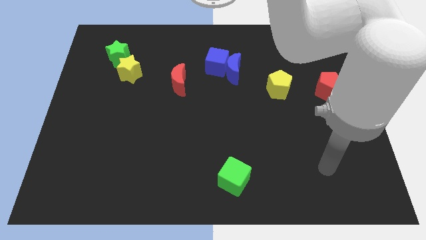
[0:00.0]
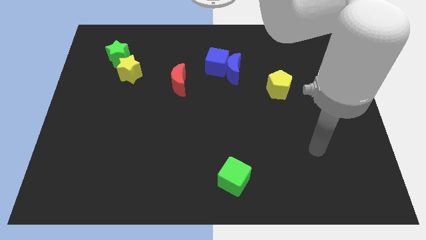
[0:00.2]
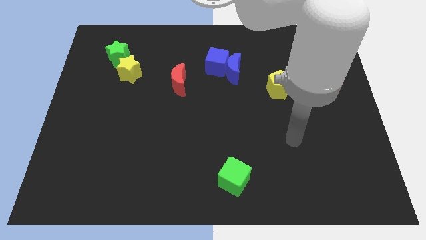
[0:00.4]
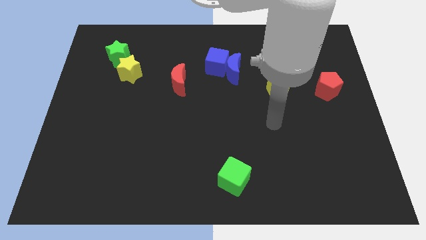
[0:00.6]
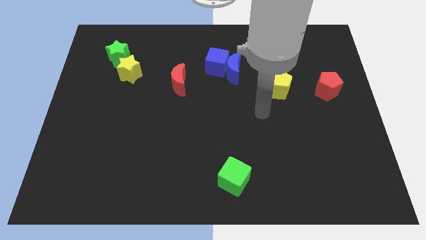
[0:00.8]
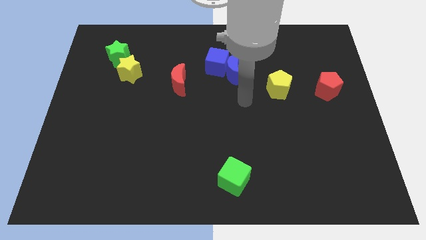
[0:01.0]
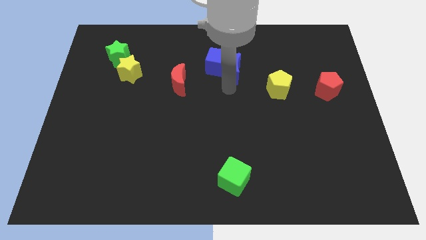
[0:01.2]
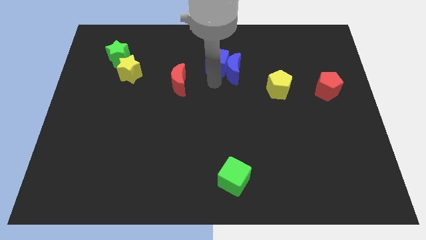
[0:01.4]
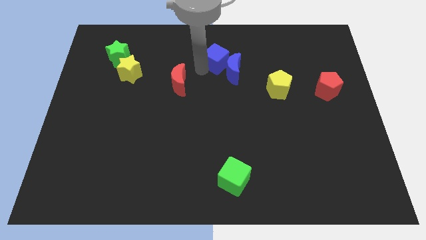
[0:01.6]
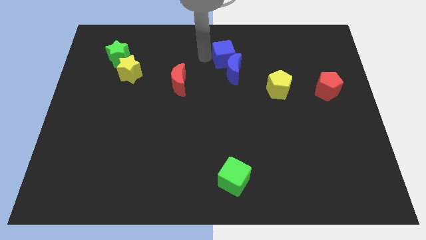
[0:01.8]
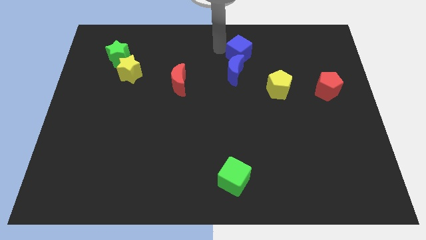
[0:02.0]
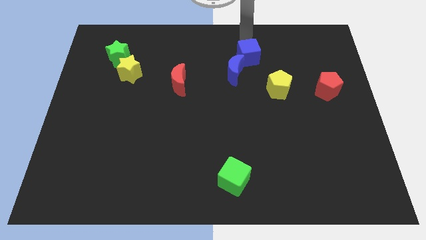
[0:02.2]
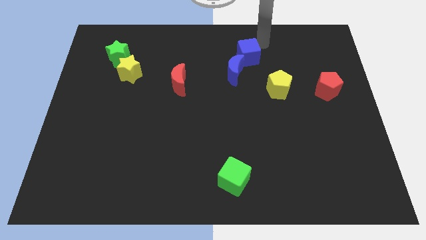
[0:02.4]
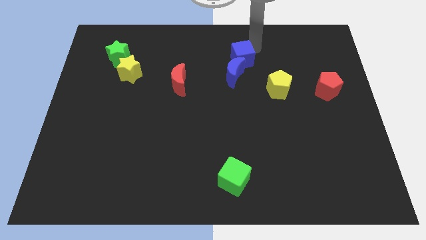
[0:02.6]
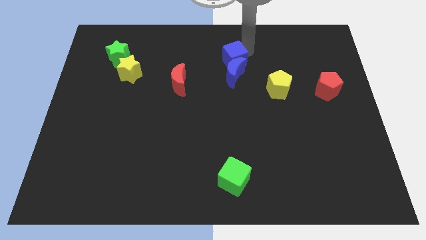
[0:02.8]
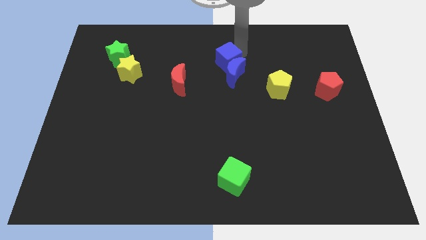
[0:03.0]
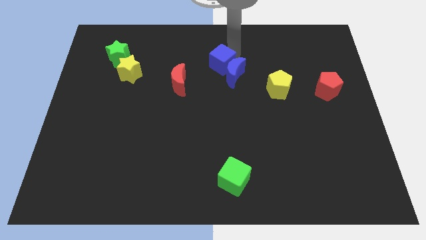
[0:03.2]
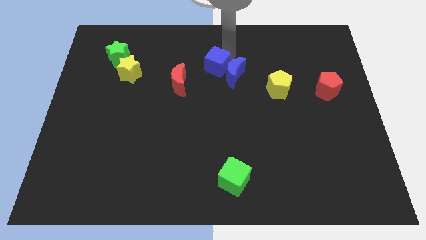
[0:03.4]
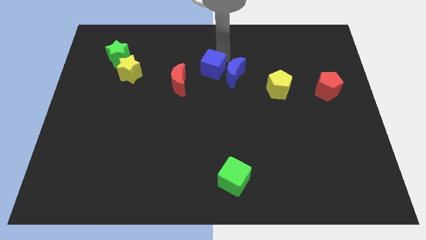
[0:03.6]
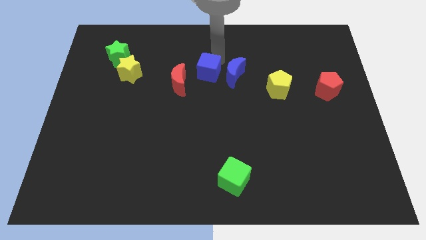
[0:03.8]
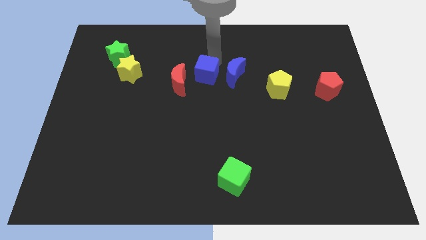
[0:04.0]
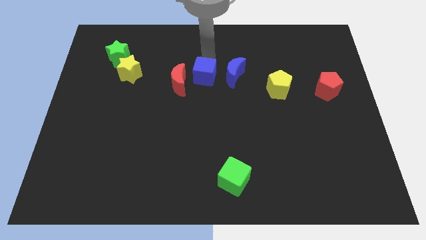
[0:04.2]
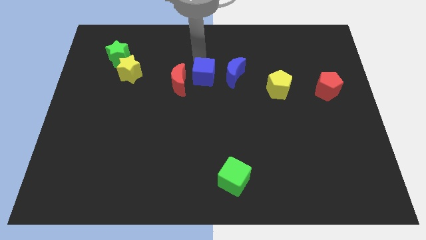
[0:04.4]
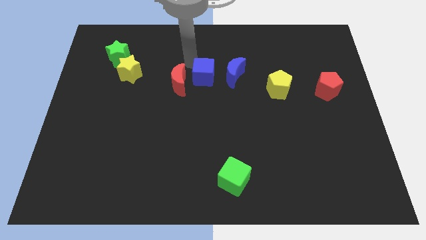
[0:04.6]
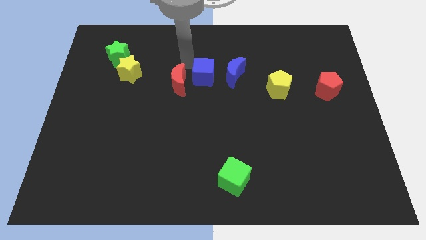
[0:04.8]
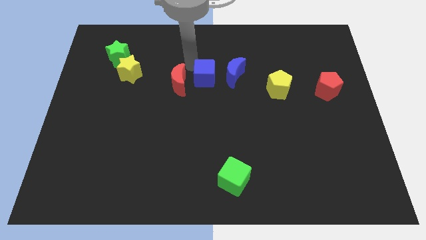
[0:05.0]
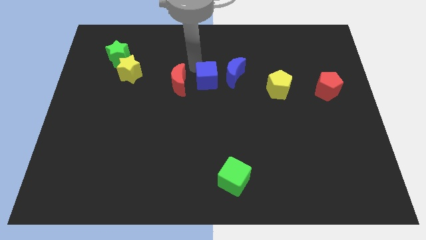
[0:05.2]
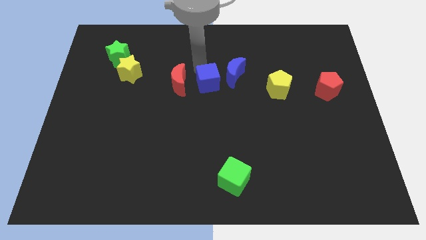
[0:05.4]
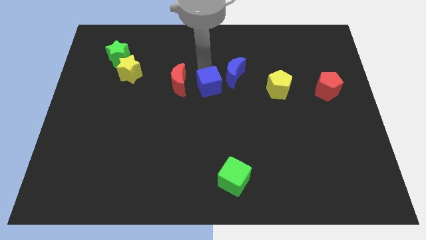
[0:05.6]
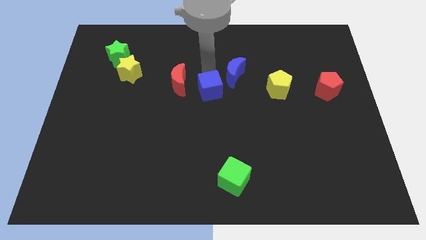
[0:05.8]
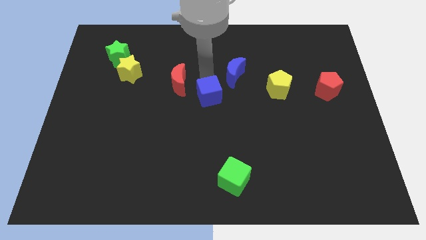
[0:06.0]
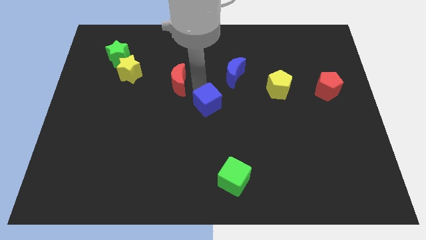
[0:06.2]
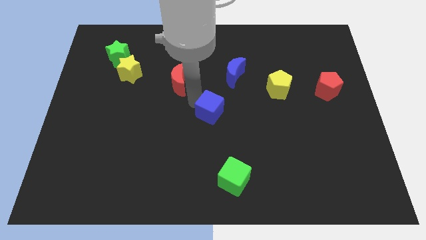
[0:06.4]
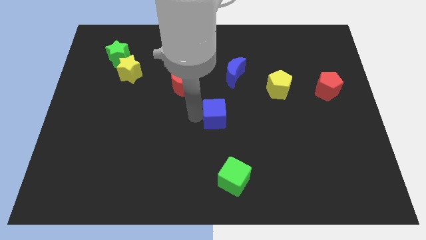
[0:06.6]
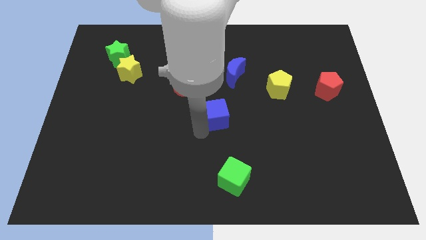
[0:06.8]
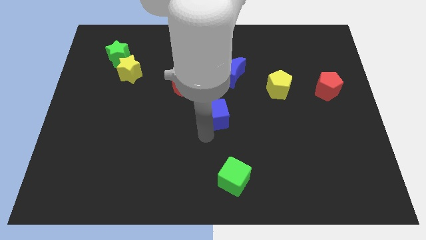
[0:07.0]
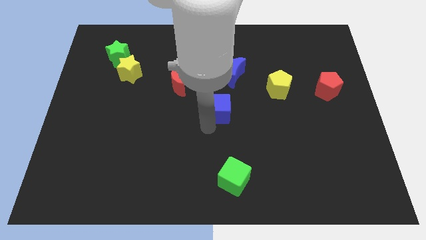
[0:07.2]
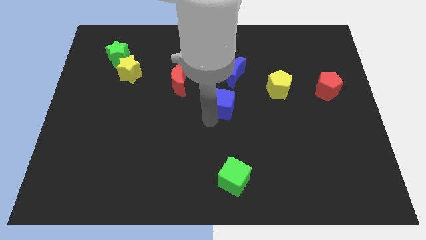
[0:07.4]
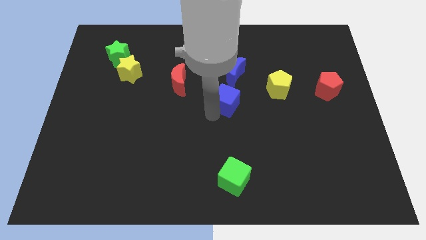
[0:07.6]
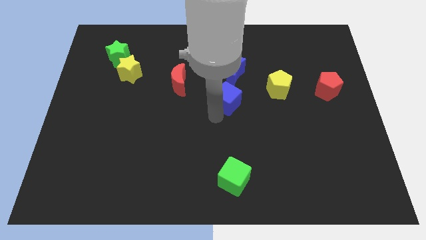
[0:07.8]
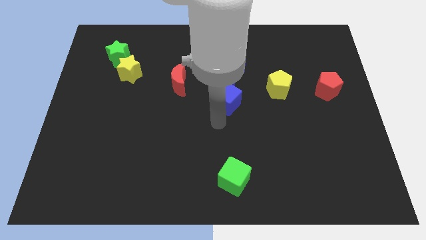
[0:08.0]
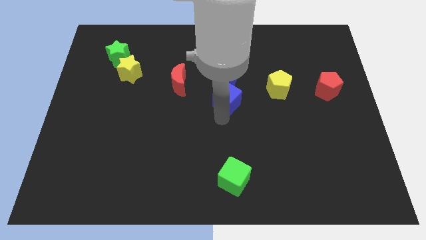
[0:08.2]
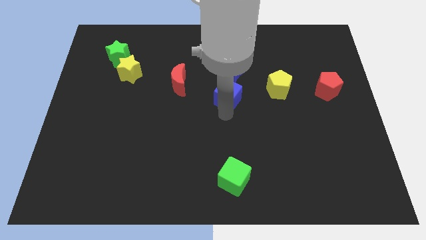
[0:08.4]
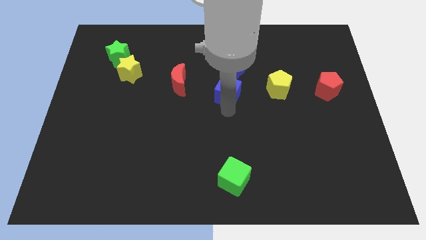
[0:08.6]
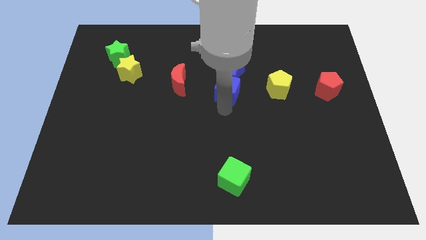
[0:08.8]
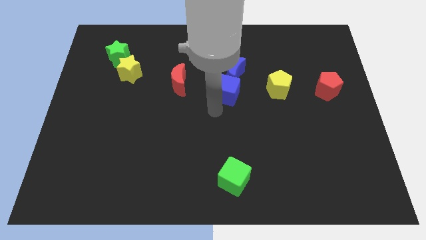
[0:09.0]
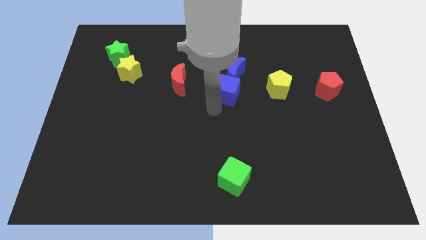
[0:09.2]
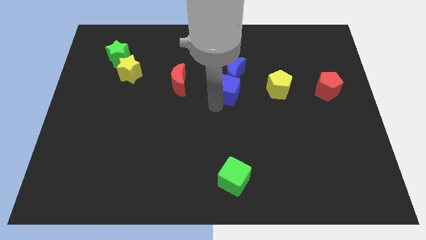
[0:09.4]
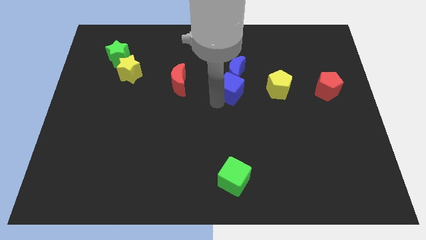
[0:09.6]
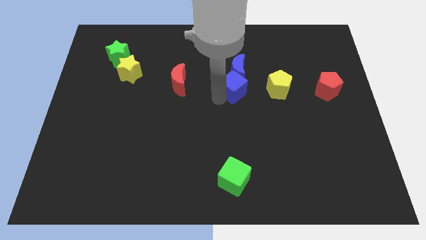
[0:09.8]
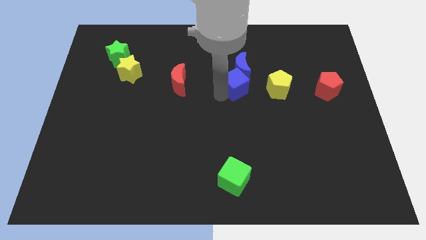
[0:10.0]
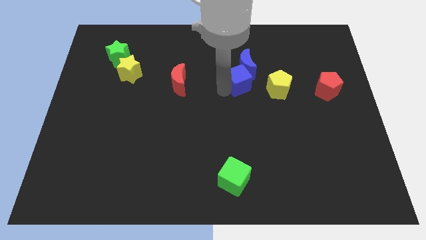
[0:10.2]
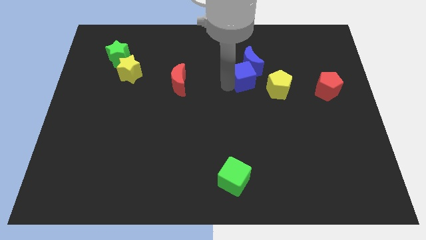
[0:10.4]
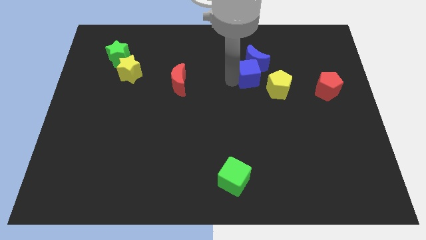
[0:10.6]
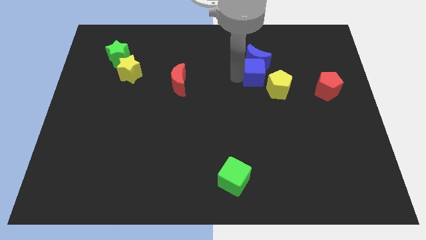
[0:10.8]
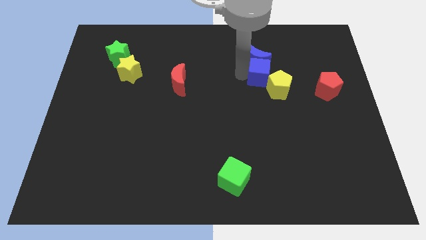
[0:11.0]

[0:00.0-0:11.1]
push the blue cube towards the yellow pentagon

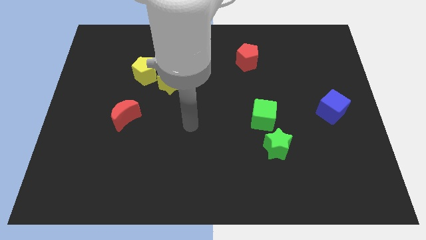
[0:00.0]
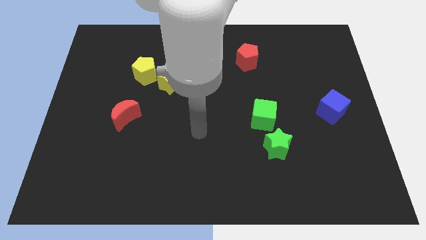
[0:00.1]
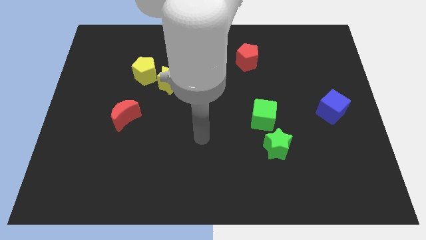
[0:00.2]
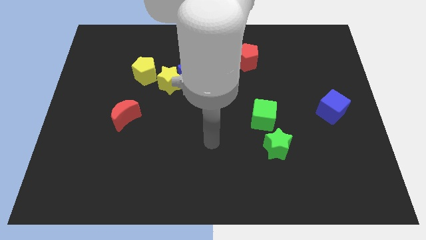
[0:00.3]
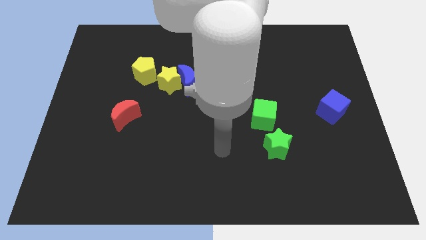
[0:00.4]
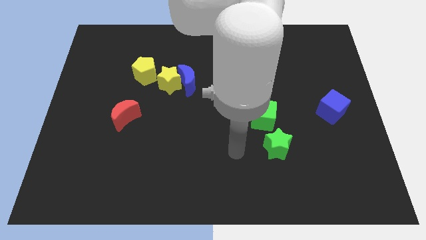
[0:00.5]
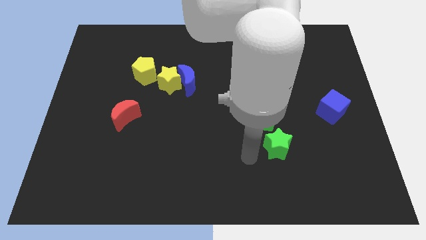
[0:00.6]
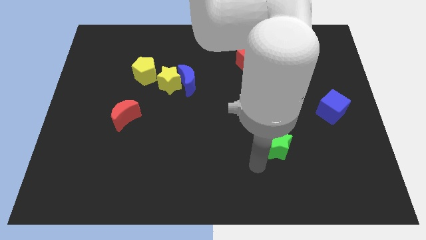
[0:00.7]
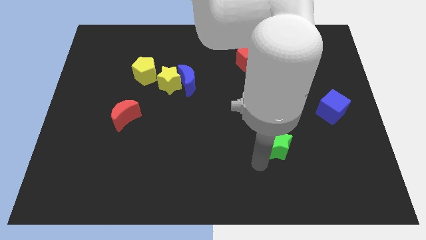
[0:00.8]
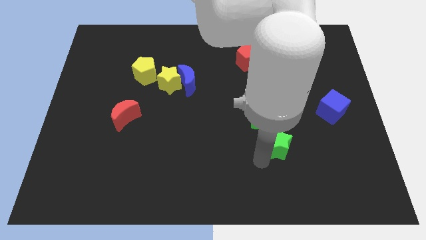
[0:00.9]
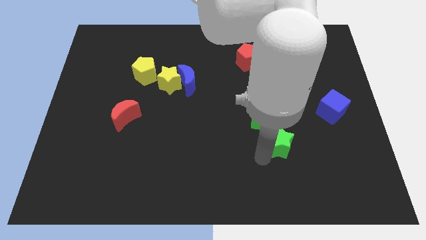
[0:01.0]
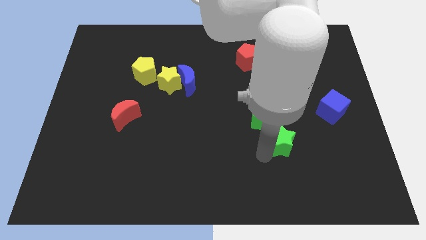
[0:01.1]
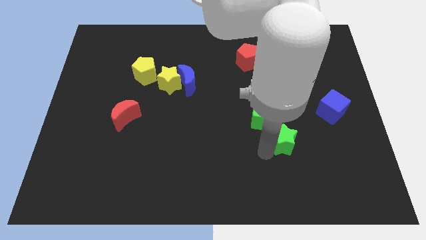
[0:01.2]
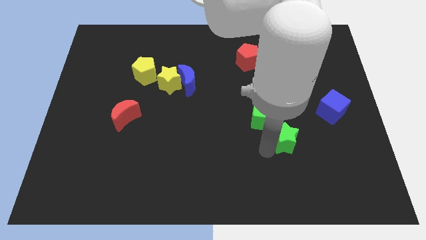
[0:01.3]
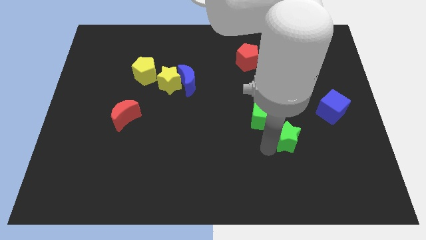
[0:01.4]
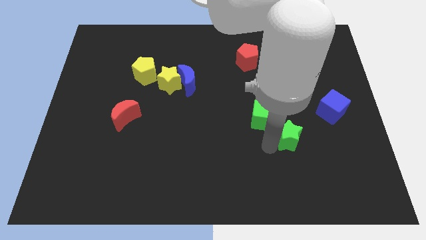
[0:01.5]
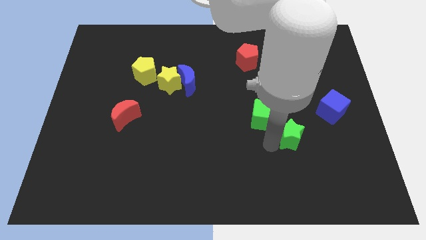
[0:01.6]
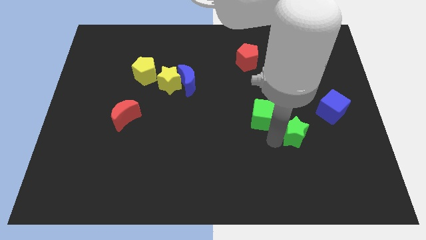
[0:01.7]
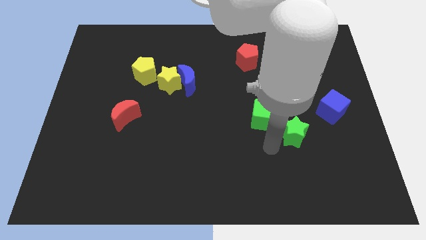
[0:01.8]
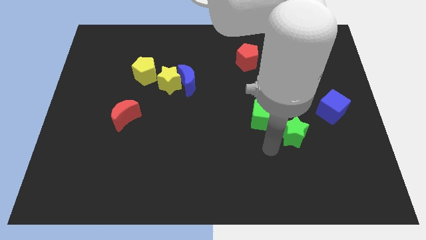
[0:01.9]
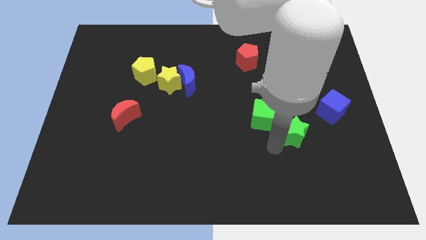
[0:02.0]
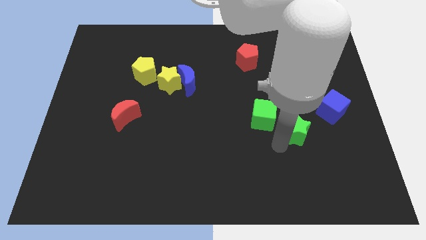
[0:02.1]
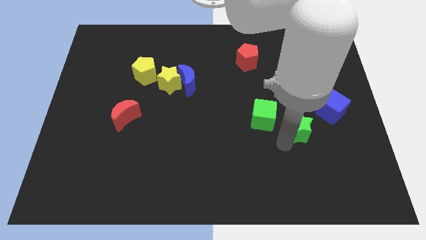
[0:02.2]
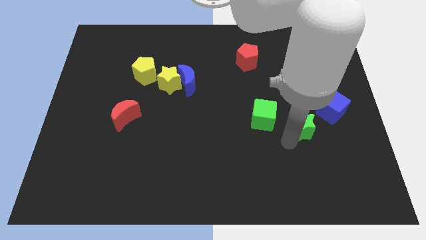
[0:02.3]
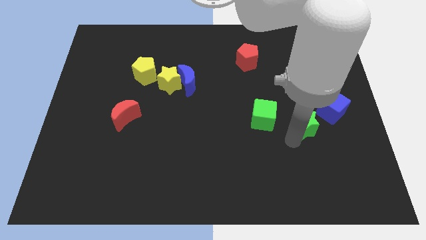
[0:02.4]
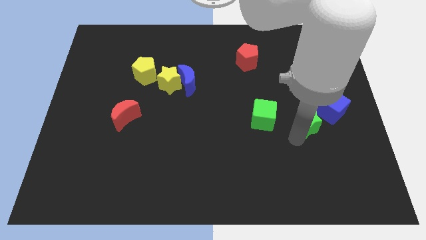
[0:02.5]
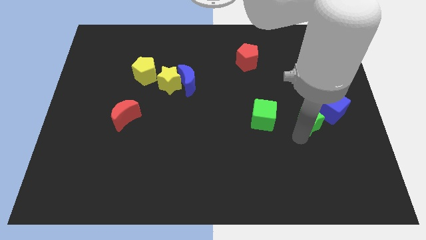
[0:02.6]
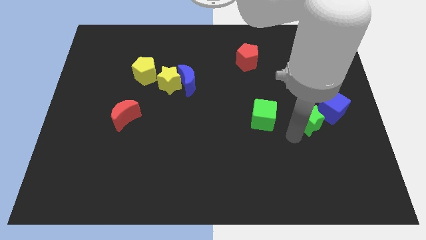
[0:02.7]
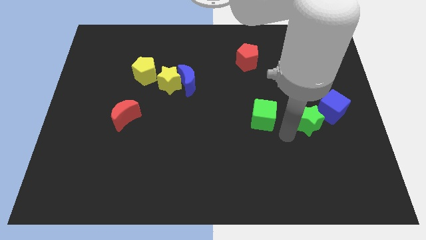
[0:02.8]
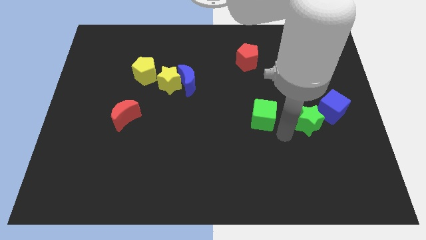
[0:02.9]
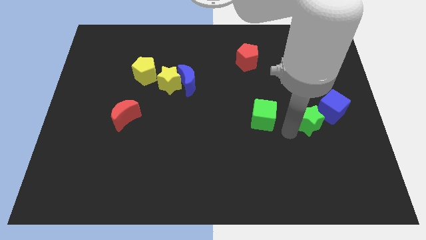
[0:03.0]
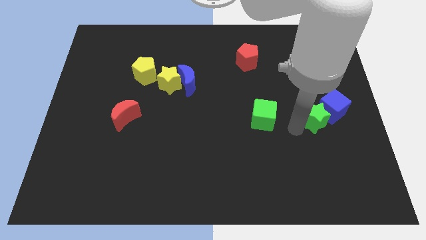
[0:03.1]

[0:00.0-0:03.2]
slide the green star close to the blue cube
